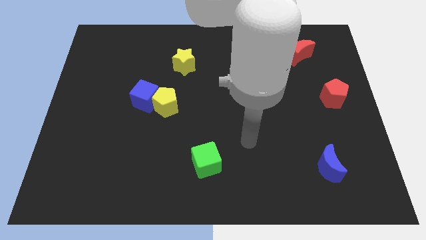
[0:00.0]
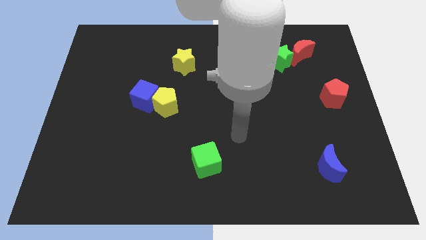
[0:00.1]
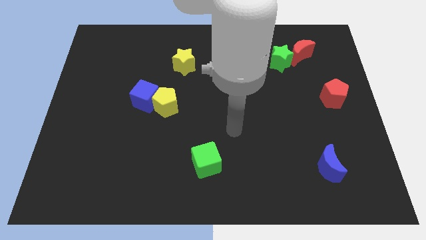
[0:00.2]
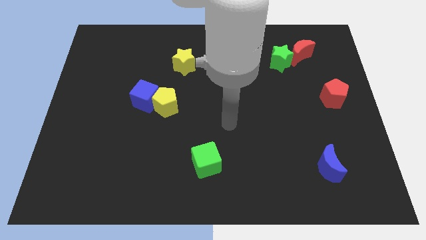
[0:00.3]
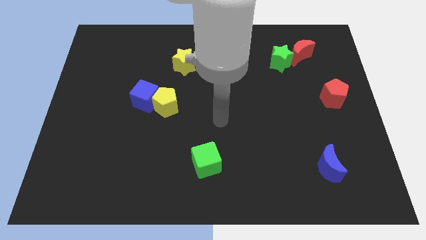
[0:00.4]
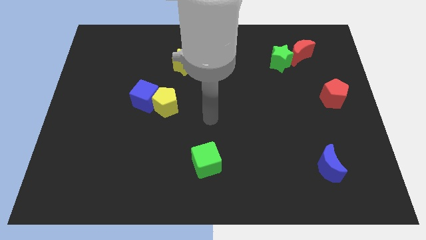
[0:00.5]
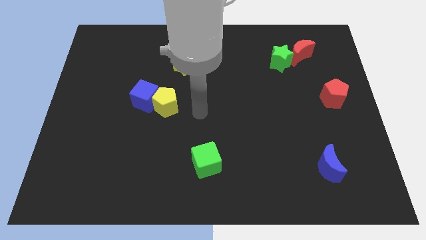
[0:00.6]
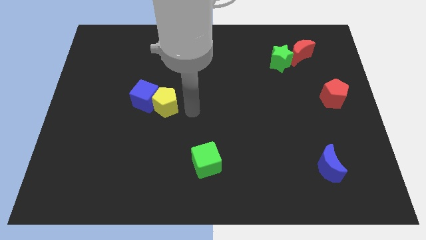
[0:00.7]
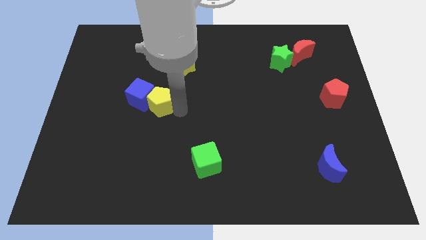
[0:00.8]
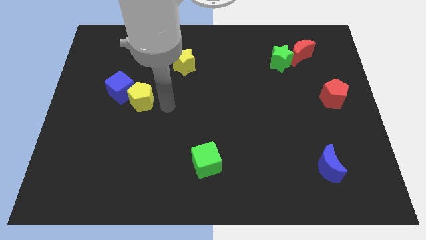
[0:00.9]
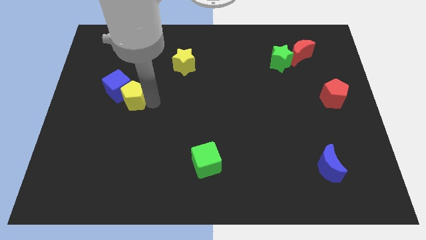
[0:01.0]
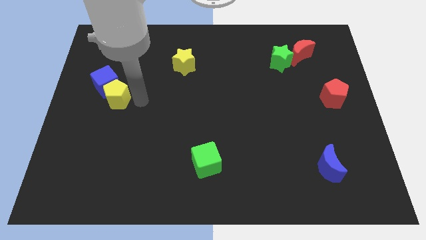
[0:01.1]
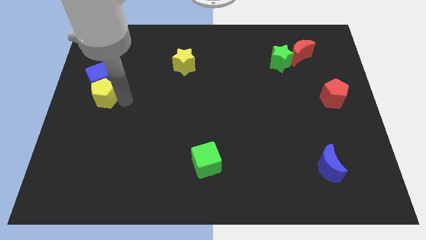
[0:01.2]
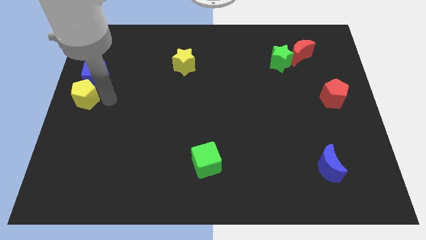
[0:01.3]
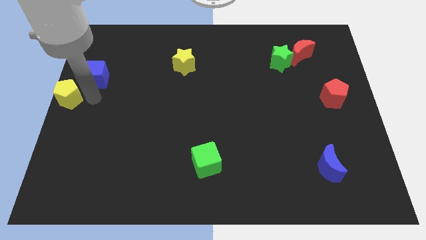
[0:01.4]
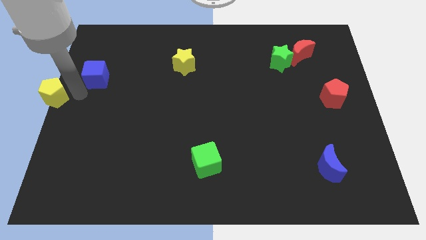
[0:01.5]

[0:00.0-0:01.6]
separate the blue cube from the yellow pentagon

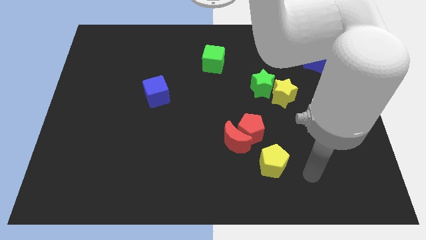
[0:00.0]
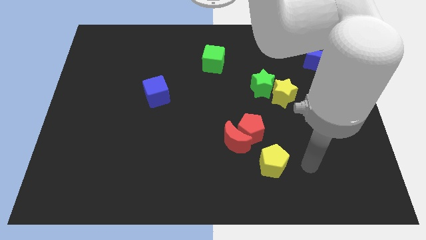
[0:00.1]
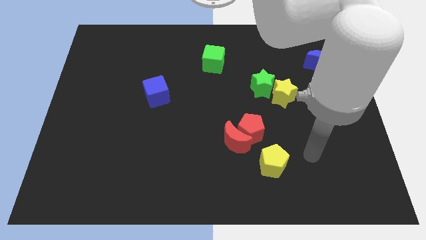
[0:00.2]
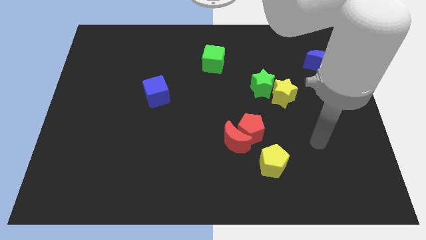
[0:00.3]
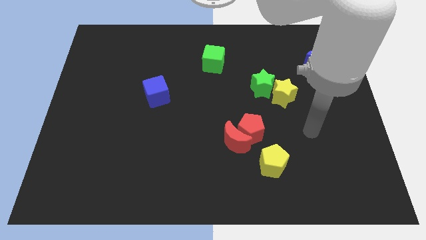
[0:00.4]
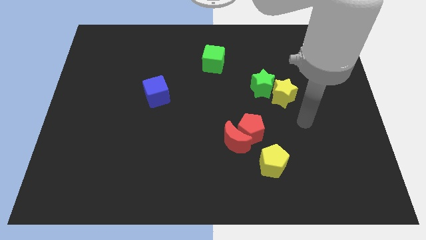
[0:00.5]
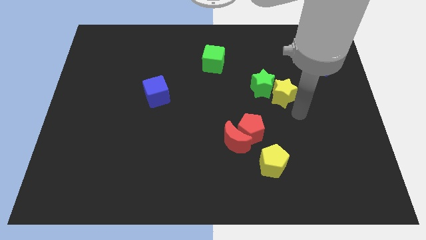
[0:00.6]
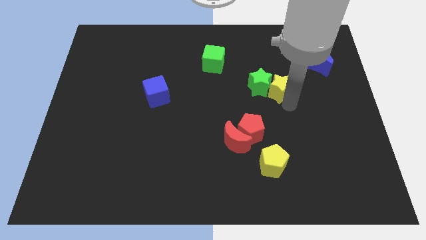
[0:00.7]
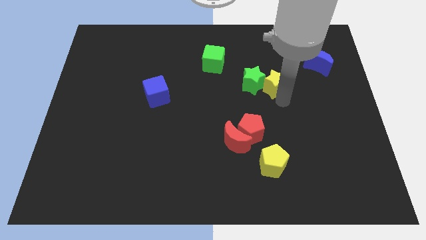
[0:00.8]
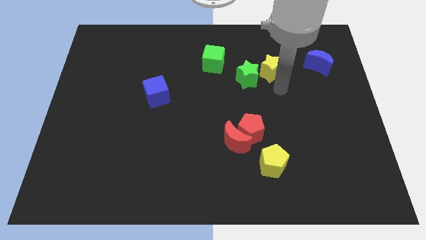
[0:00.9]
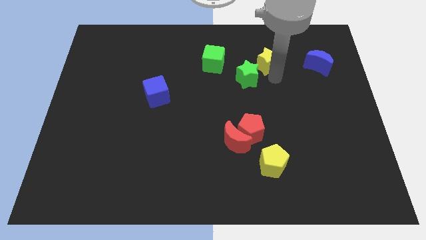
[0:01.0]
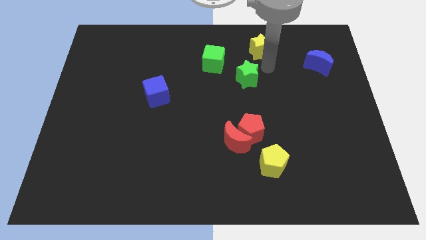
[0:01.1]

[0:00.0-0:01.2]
move the green star away from the yellow star

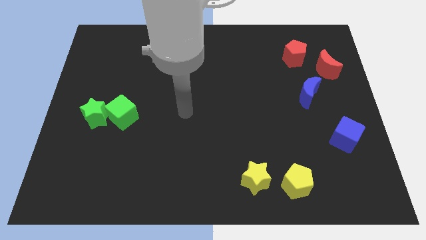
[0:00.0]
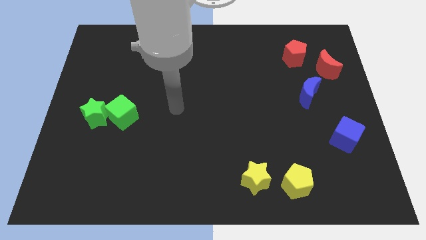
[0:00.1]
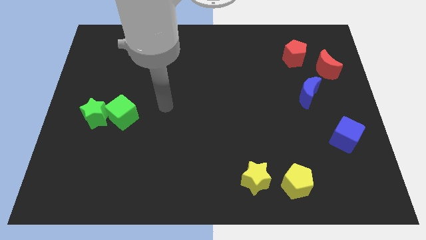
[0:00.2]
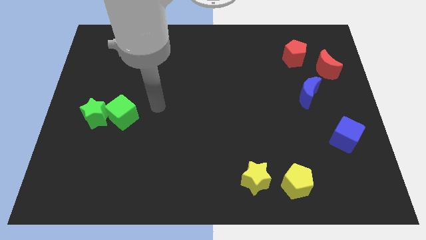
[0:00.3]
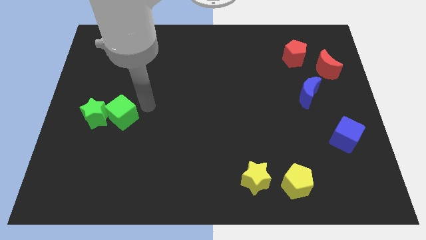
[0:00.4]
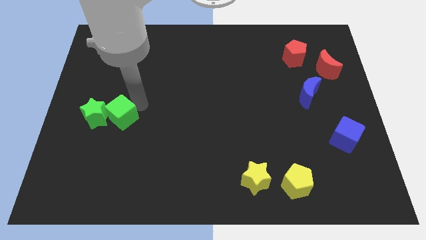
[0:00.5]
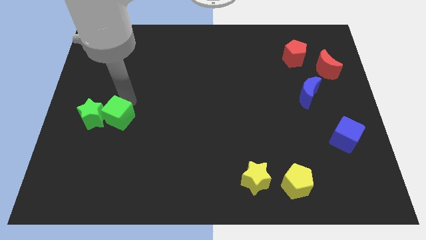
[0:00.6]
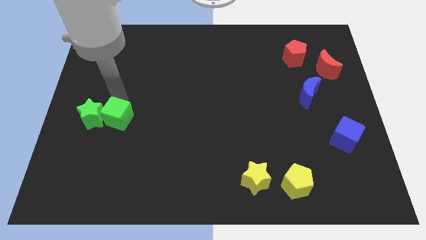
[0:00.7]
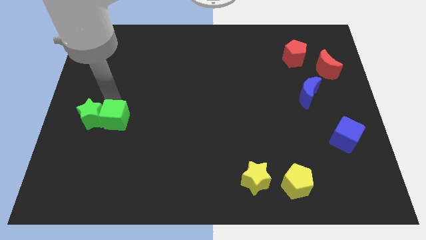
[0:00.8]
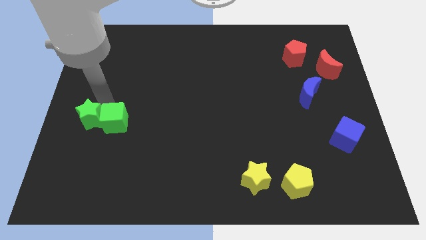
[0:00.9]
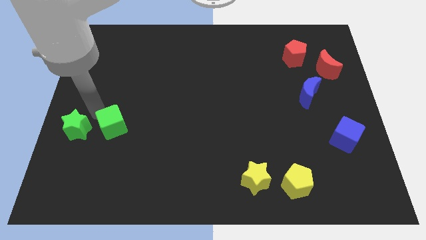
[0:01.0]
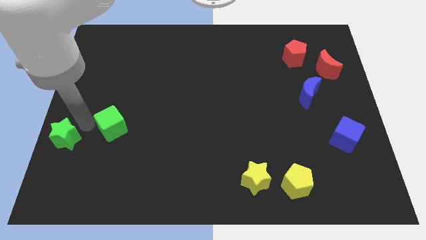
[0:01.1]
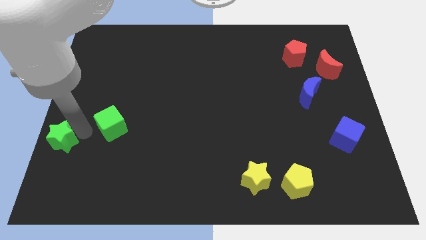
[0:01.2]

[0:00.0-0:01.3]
move the green cube away from the green star

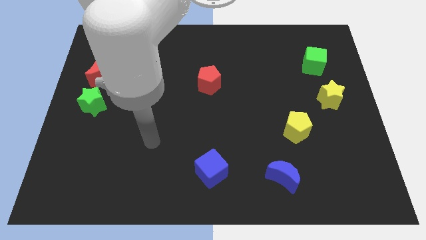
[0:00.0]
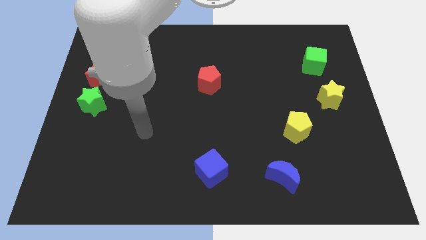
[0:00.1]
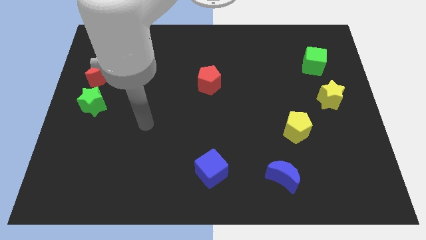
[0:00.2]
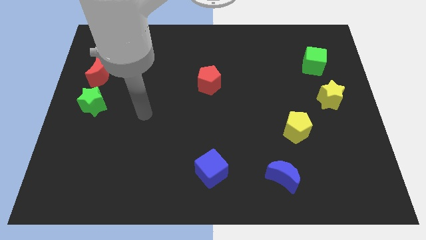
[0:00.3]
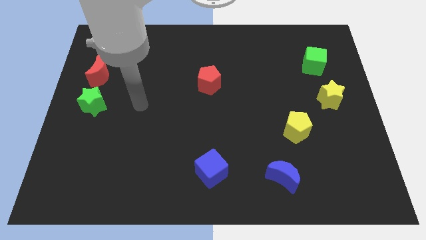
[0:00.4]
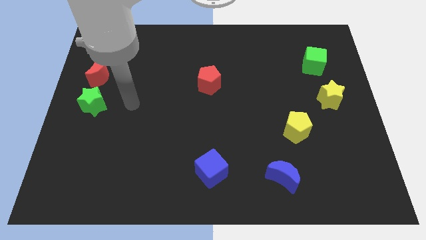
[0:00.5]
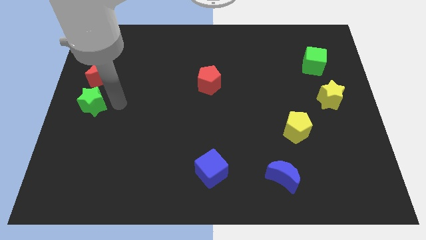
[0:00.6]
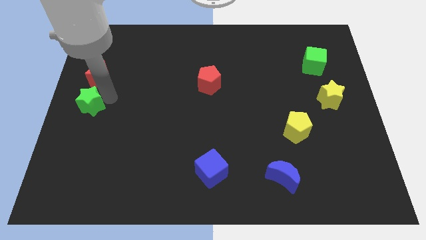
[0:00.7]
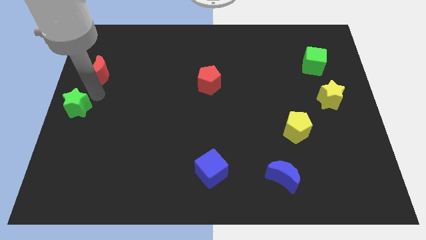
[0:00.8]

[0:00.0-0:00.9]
separate the red moon from the green star

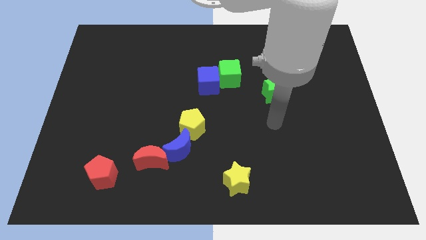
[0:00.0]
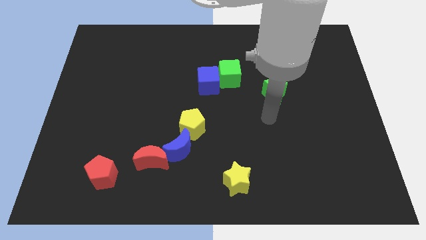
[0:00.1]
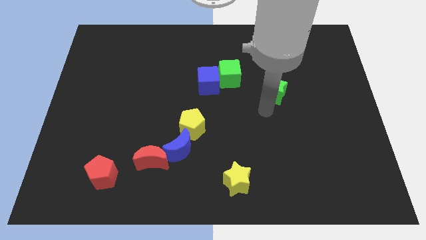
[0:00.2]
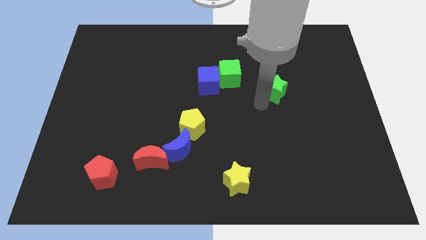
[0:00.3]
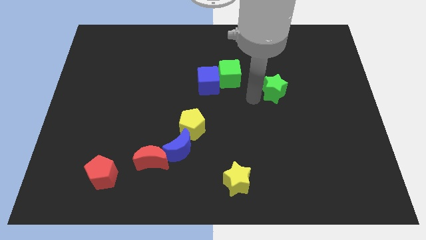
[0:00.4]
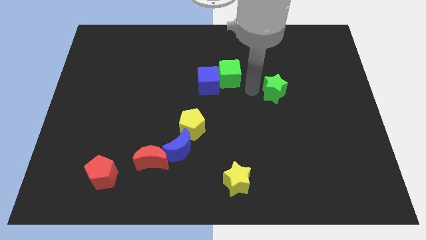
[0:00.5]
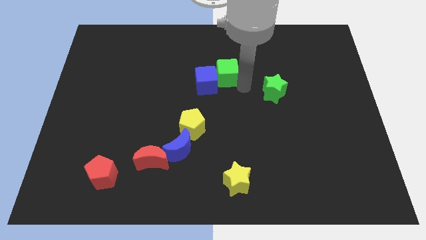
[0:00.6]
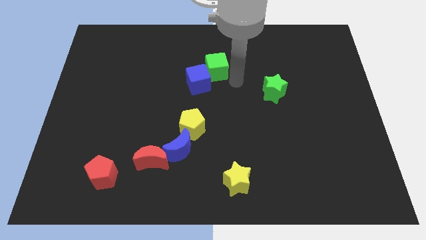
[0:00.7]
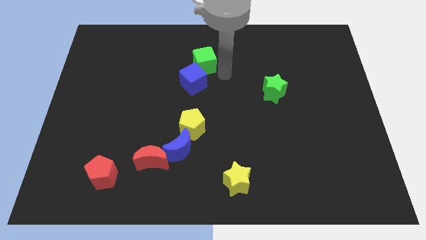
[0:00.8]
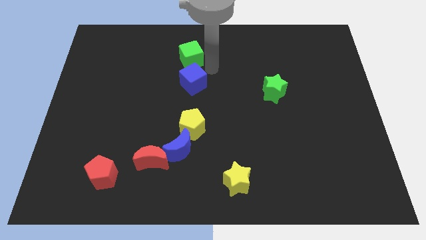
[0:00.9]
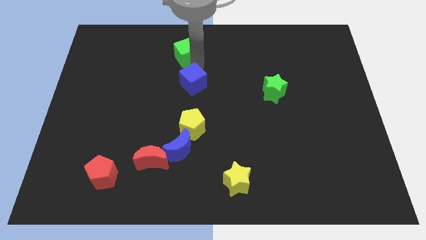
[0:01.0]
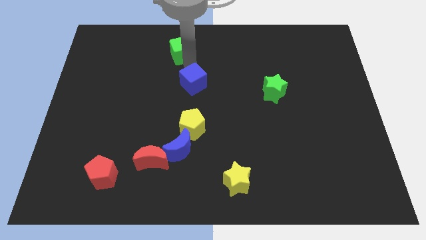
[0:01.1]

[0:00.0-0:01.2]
pull the blue cube apart from the green cube

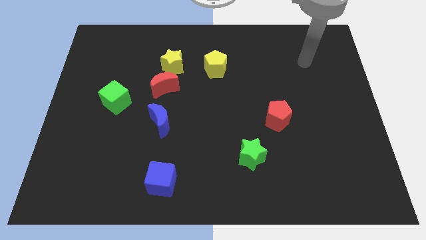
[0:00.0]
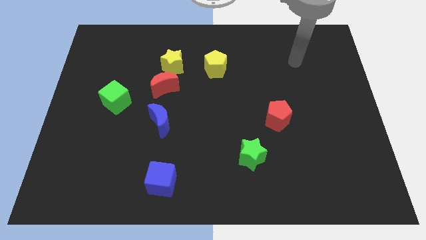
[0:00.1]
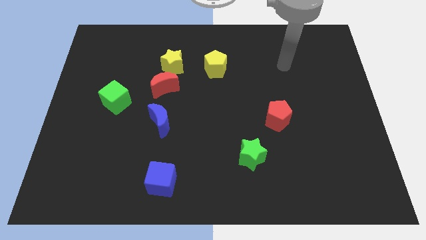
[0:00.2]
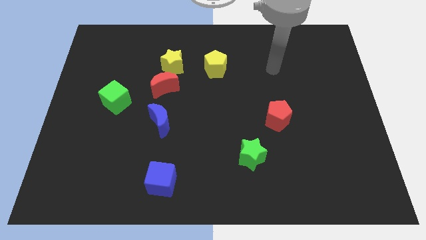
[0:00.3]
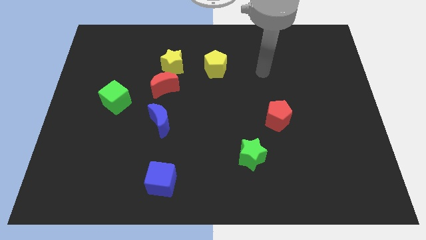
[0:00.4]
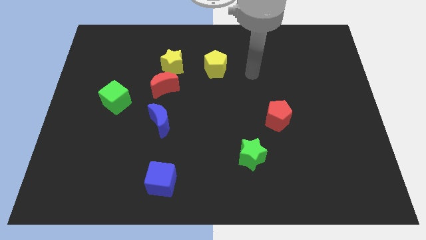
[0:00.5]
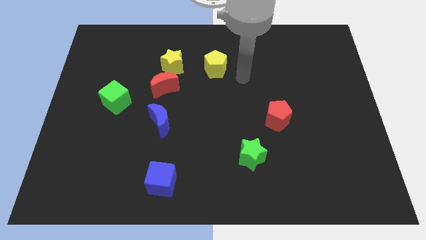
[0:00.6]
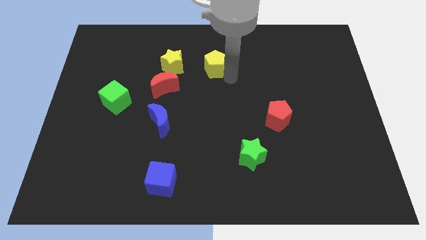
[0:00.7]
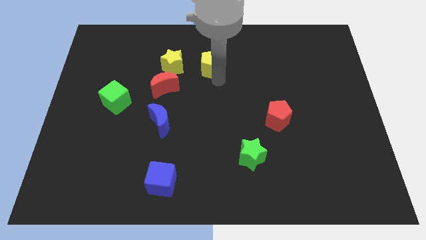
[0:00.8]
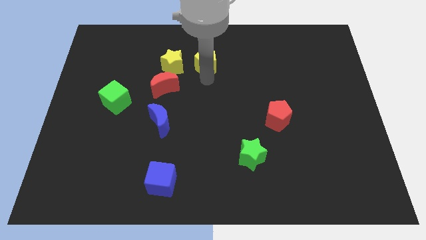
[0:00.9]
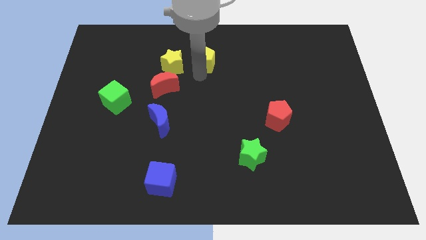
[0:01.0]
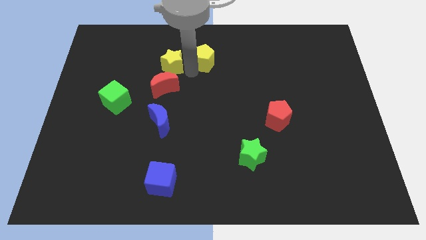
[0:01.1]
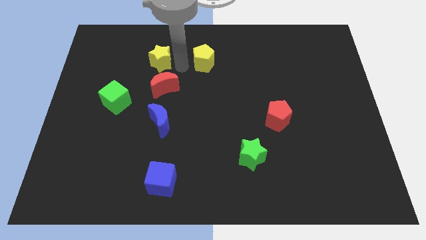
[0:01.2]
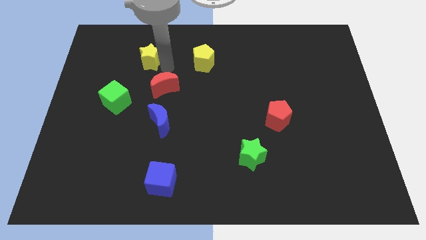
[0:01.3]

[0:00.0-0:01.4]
separate the red moon from the yellow star

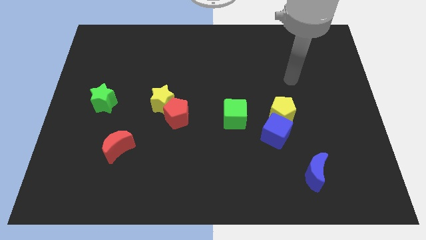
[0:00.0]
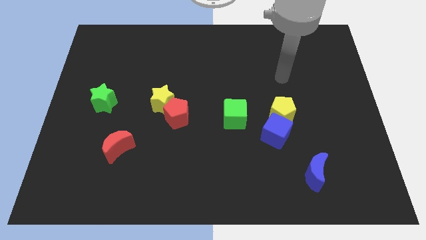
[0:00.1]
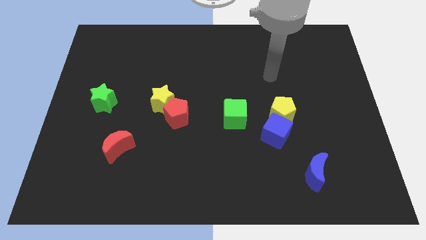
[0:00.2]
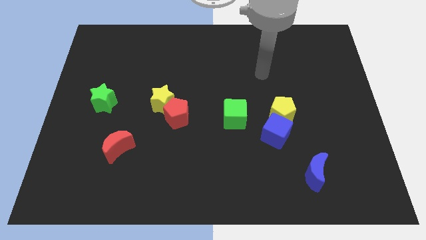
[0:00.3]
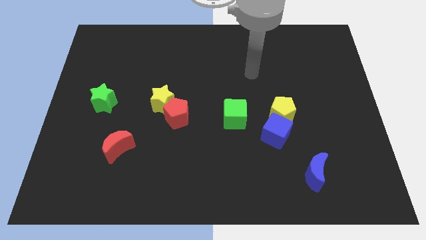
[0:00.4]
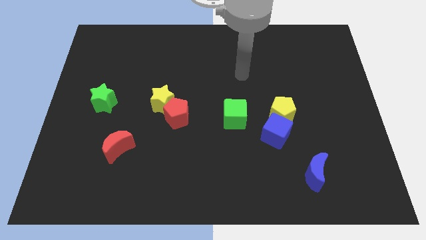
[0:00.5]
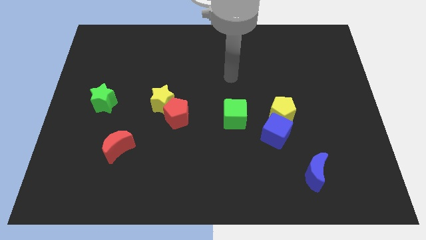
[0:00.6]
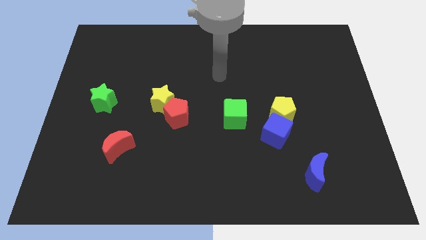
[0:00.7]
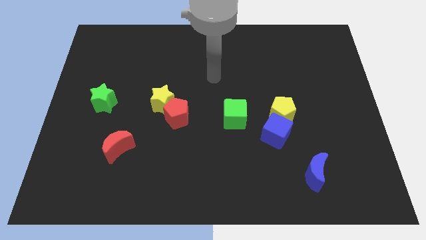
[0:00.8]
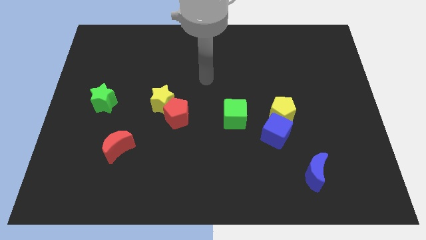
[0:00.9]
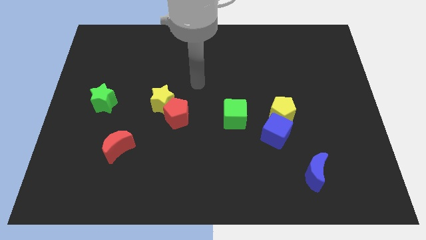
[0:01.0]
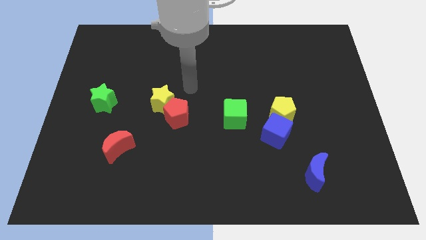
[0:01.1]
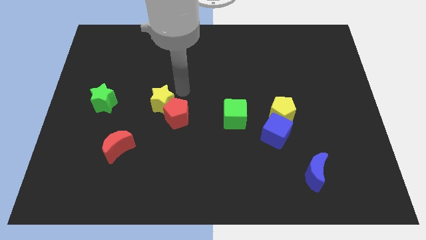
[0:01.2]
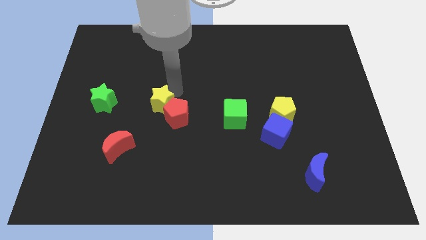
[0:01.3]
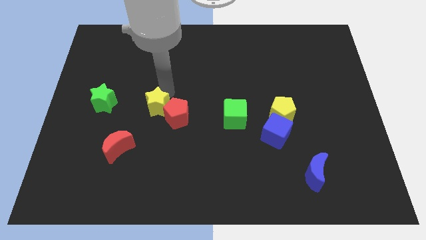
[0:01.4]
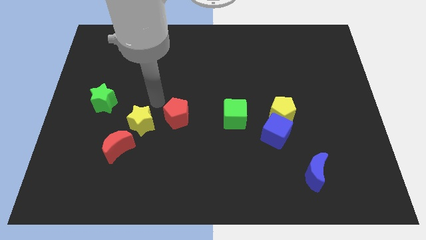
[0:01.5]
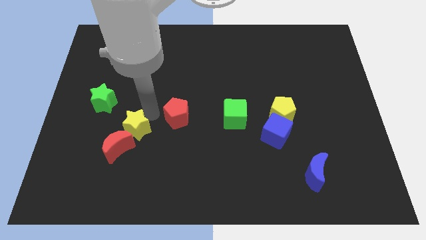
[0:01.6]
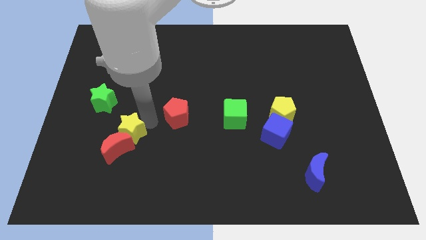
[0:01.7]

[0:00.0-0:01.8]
move the red pentagon away from the yellow star

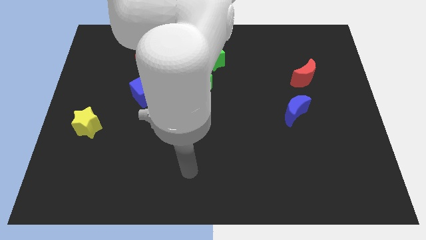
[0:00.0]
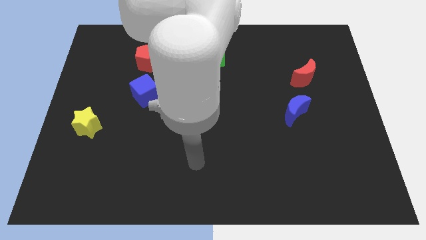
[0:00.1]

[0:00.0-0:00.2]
pull the green cube apart from the green star
